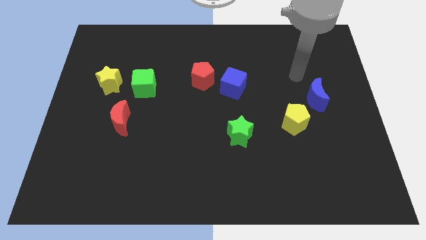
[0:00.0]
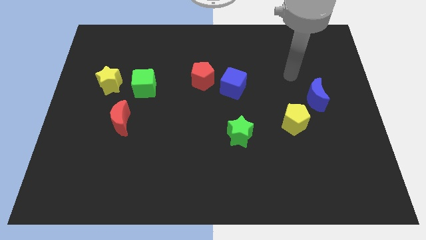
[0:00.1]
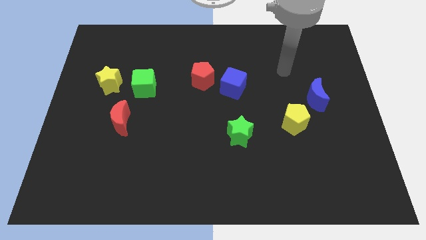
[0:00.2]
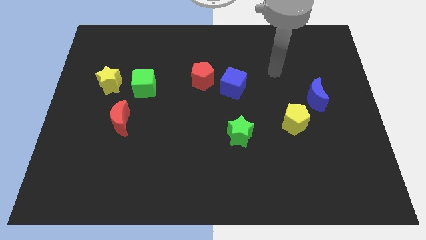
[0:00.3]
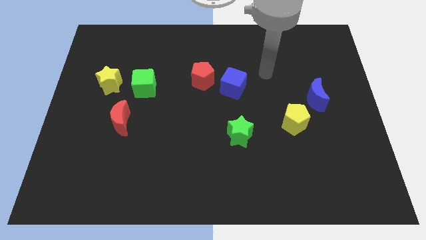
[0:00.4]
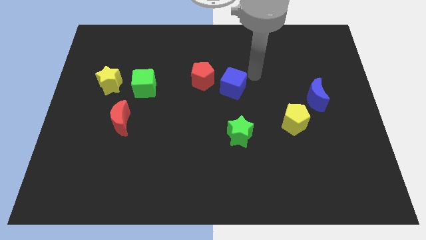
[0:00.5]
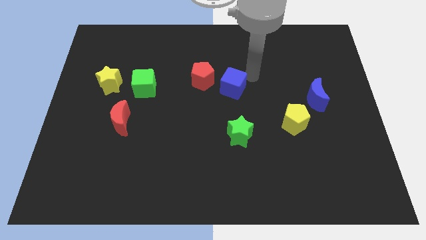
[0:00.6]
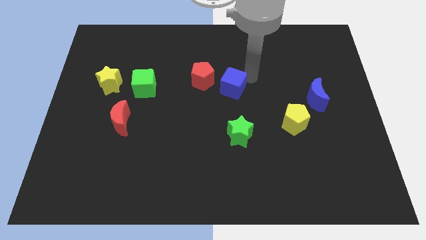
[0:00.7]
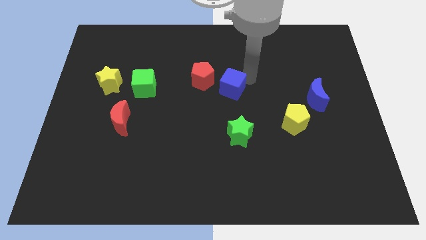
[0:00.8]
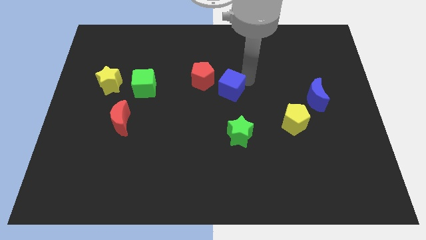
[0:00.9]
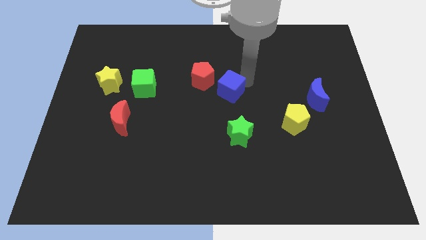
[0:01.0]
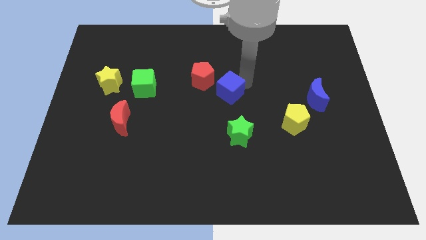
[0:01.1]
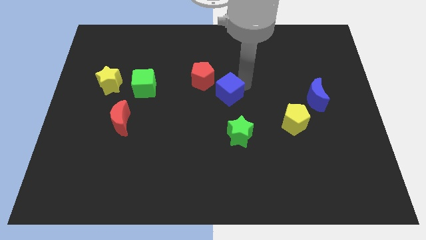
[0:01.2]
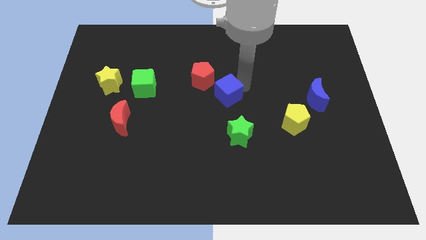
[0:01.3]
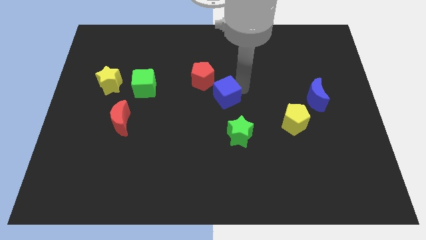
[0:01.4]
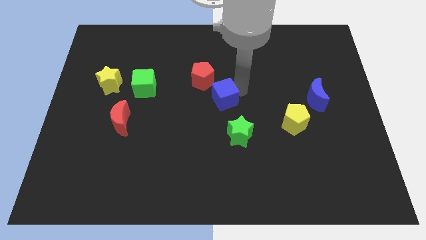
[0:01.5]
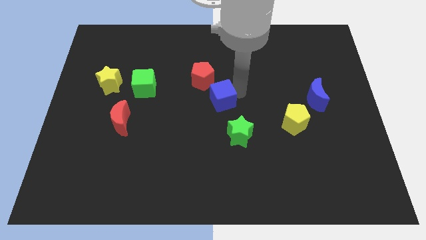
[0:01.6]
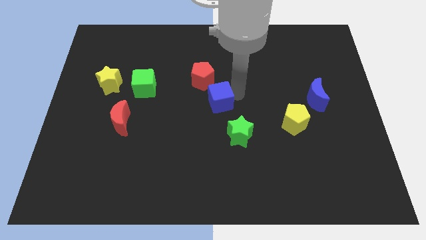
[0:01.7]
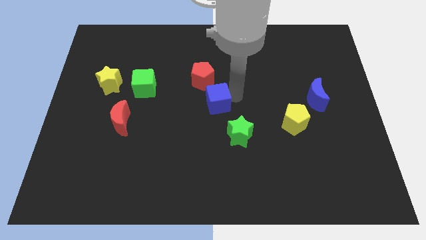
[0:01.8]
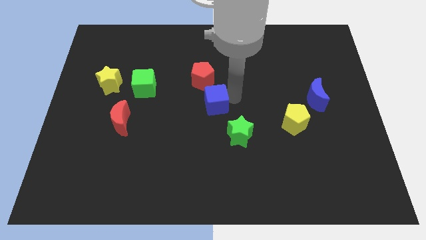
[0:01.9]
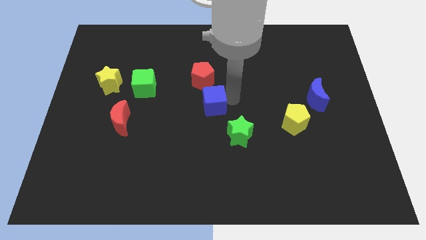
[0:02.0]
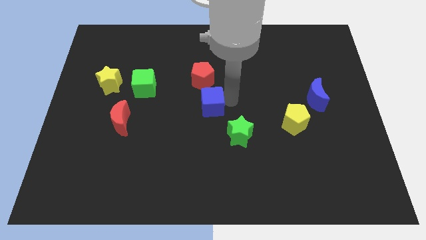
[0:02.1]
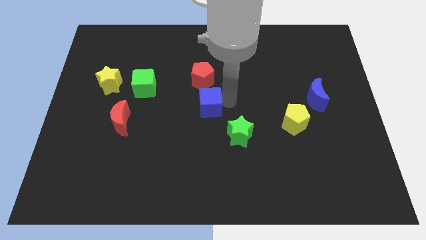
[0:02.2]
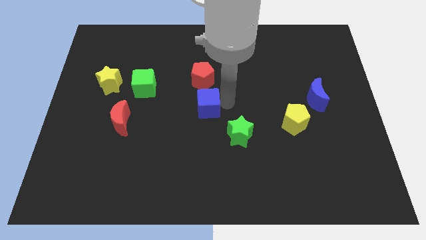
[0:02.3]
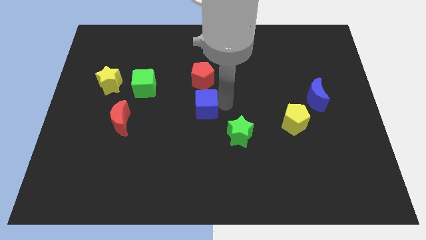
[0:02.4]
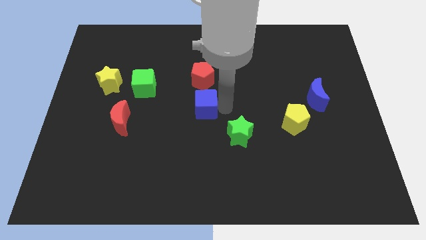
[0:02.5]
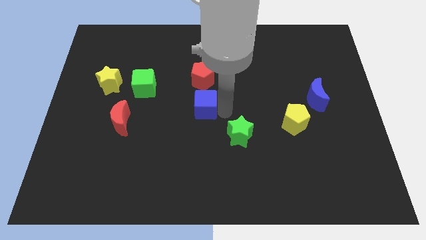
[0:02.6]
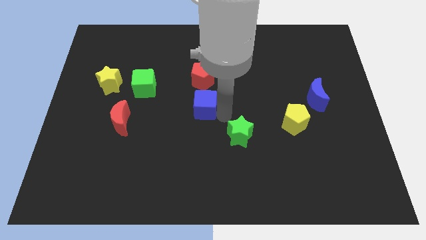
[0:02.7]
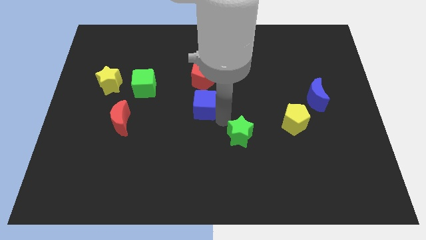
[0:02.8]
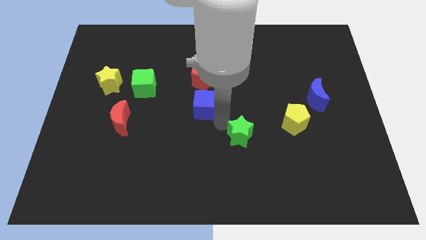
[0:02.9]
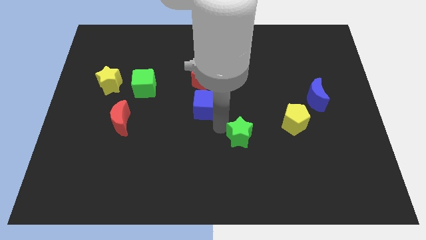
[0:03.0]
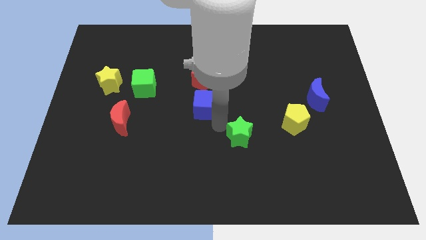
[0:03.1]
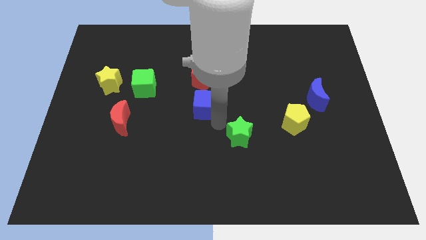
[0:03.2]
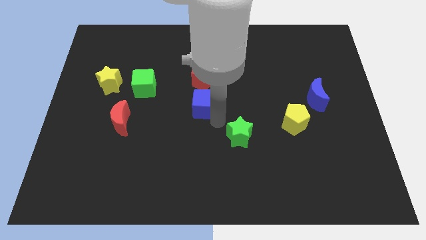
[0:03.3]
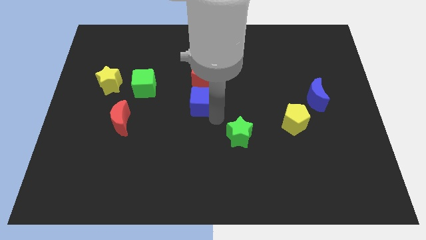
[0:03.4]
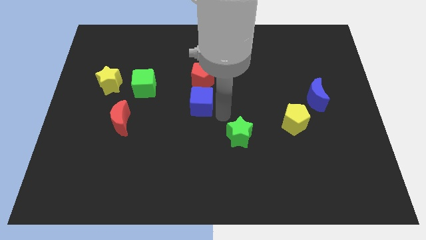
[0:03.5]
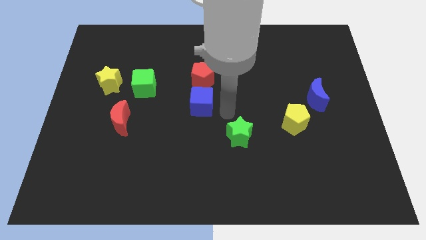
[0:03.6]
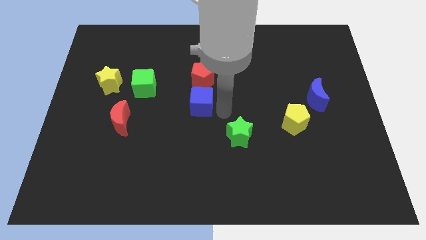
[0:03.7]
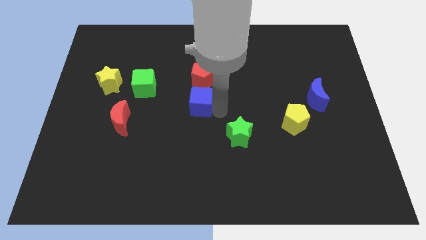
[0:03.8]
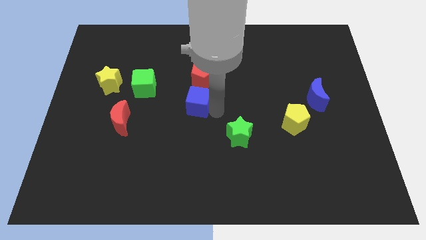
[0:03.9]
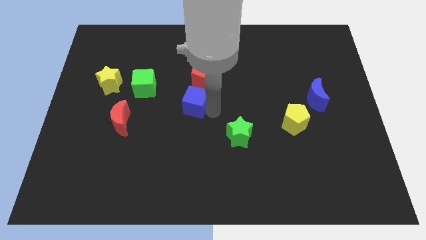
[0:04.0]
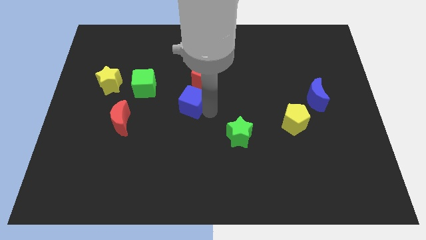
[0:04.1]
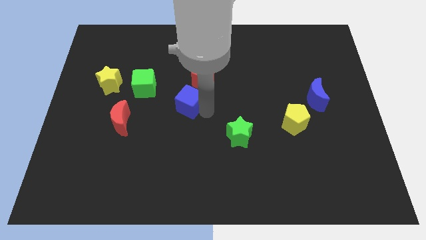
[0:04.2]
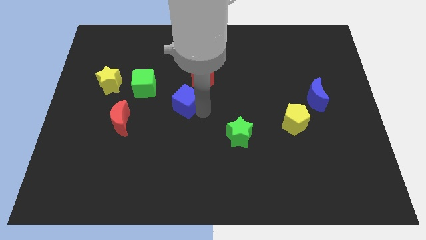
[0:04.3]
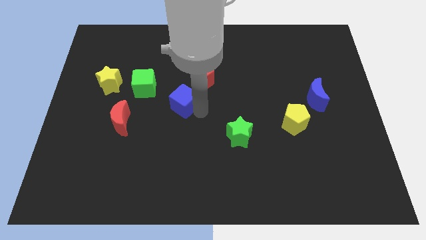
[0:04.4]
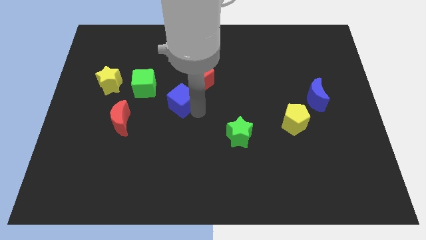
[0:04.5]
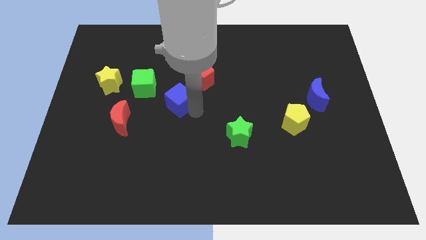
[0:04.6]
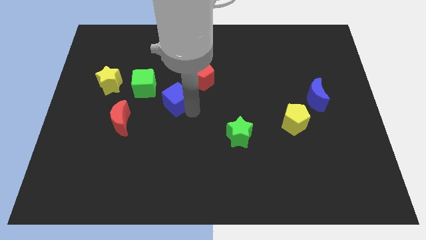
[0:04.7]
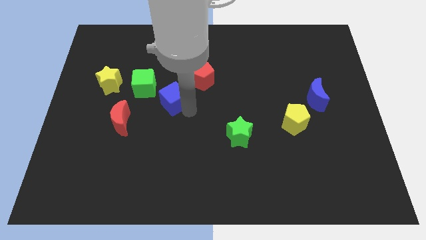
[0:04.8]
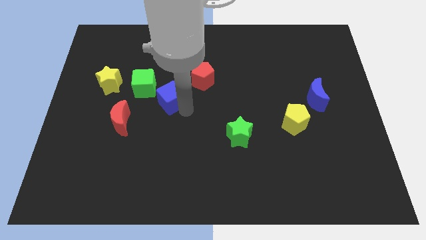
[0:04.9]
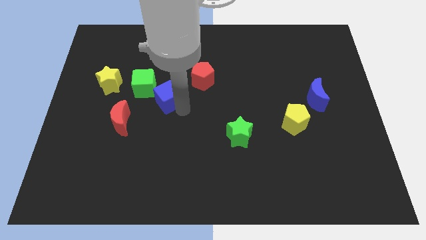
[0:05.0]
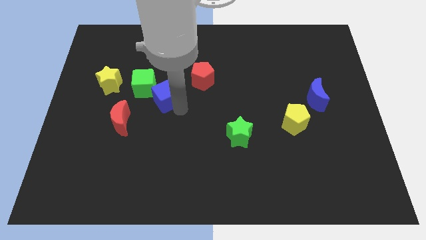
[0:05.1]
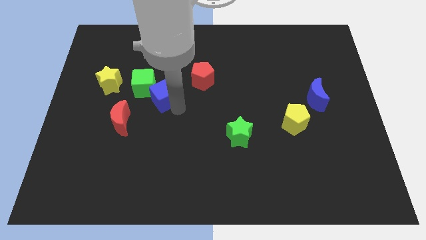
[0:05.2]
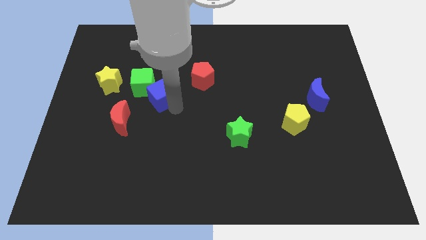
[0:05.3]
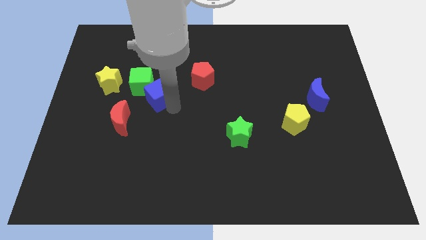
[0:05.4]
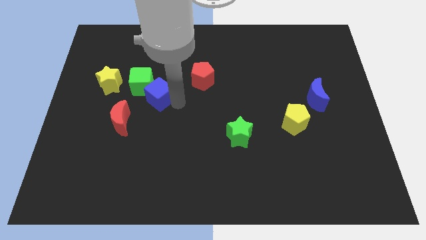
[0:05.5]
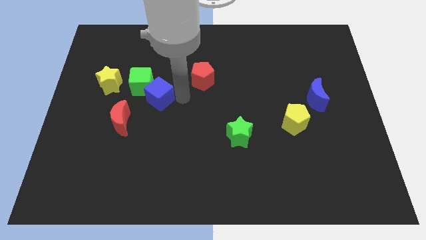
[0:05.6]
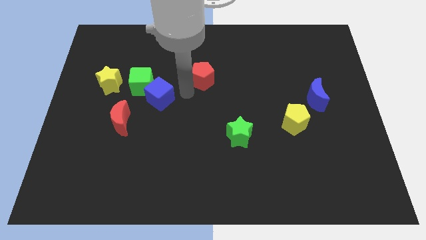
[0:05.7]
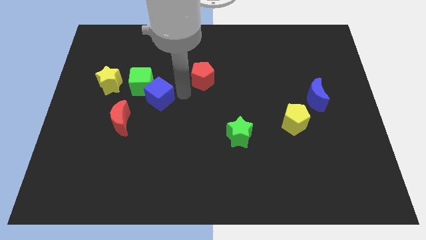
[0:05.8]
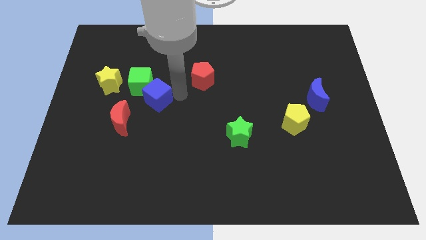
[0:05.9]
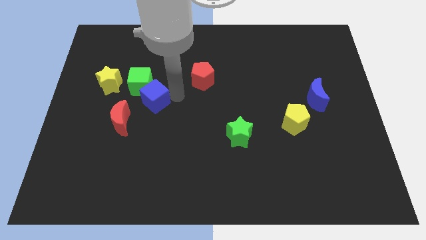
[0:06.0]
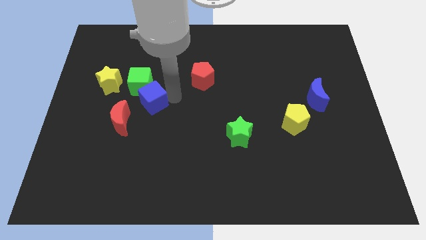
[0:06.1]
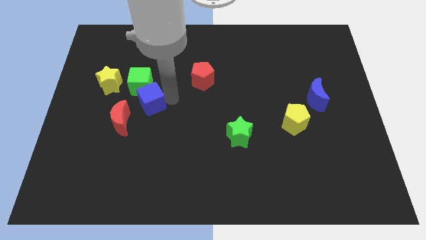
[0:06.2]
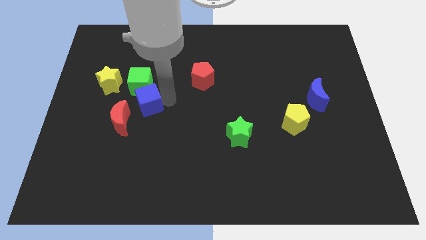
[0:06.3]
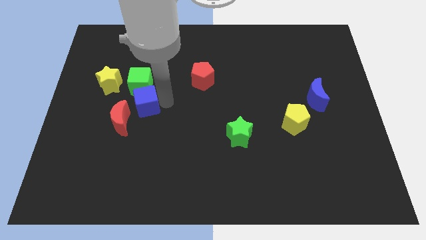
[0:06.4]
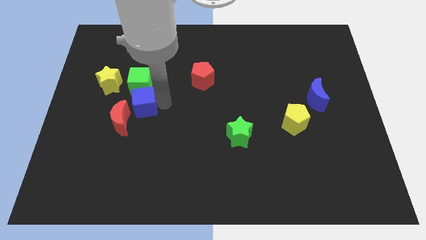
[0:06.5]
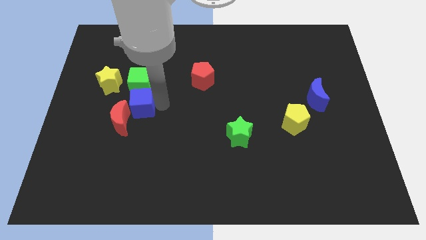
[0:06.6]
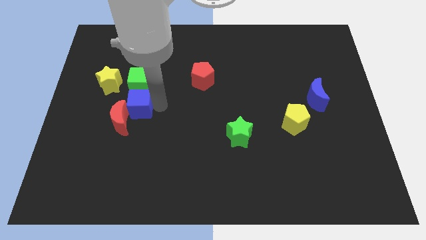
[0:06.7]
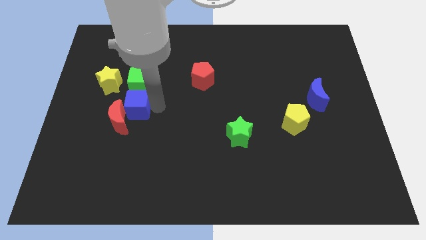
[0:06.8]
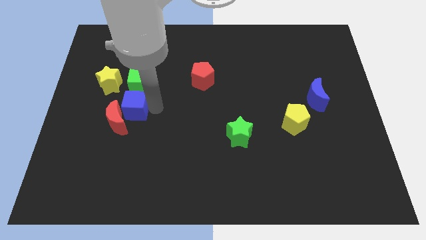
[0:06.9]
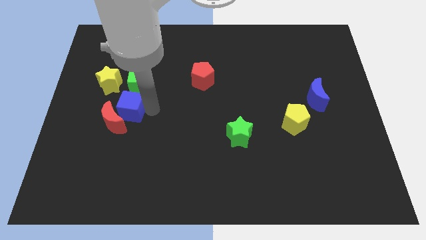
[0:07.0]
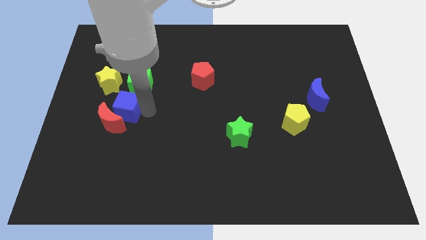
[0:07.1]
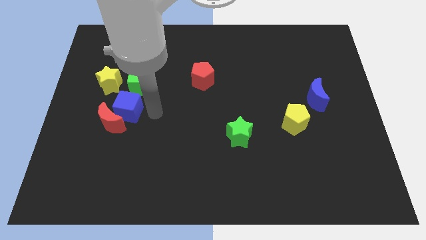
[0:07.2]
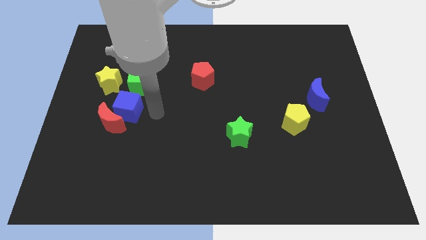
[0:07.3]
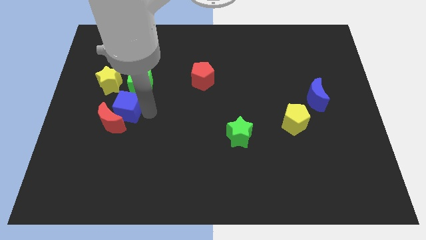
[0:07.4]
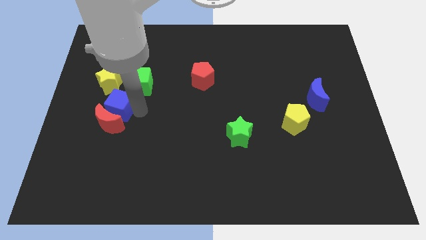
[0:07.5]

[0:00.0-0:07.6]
push the blue cube to the top left side of the red moon

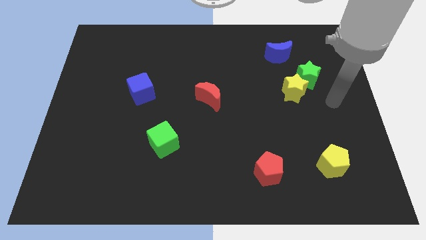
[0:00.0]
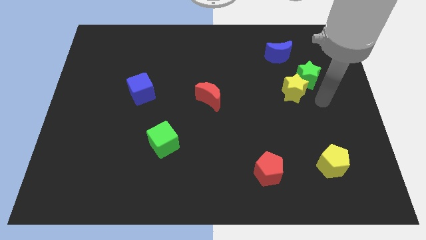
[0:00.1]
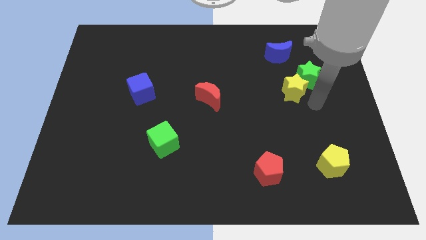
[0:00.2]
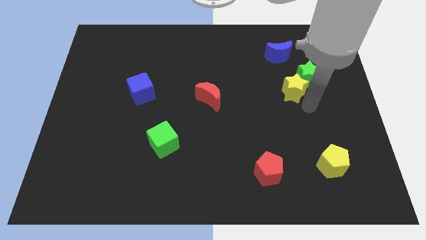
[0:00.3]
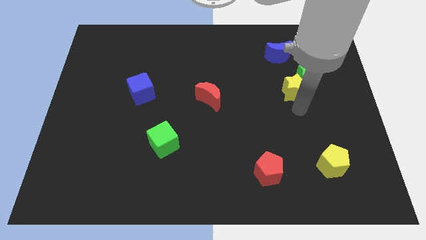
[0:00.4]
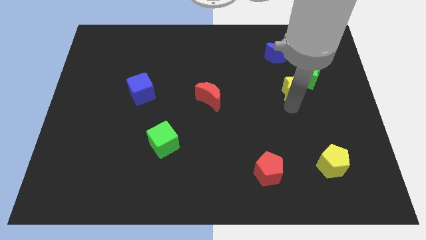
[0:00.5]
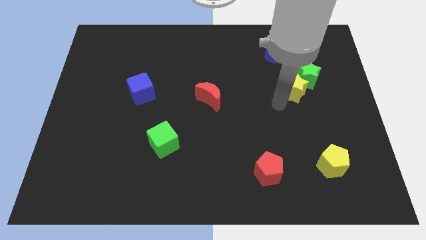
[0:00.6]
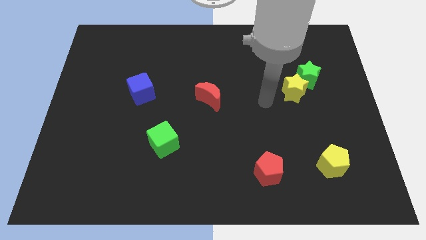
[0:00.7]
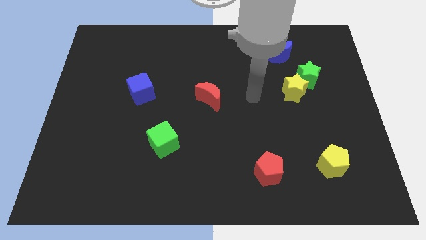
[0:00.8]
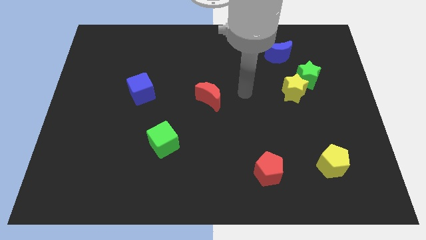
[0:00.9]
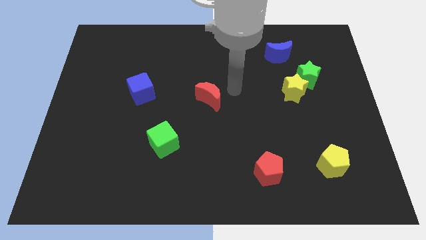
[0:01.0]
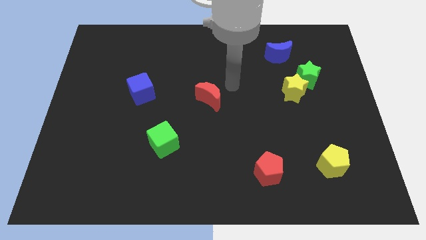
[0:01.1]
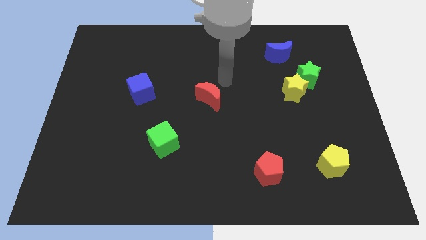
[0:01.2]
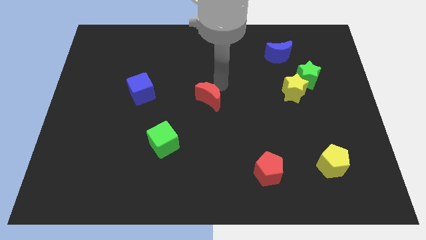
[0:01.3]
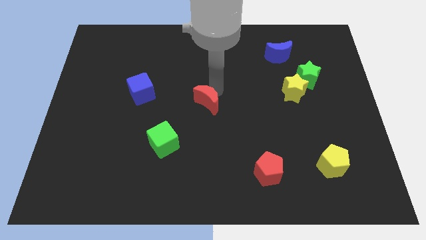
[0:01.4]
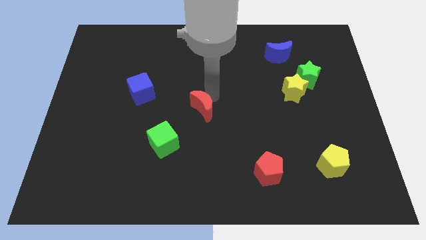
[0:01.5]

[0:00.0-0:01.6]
push the red moon to the top right of the green cube
